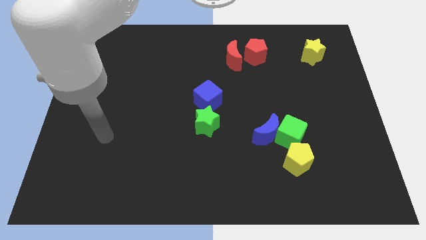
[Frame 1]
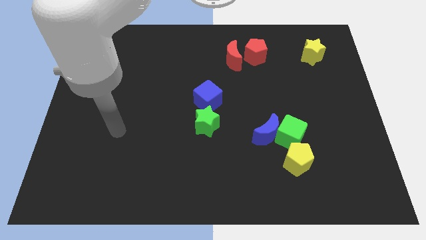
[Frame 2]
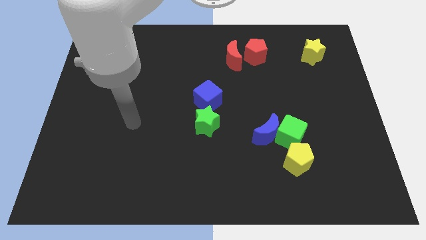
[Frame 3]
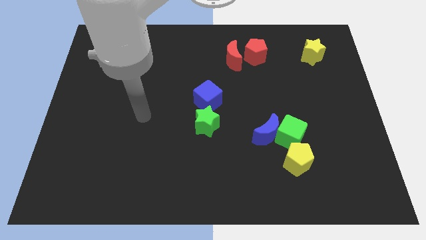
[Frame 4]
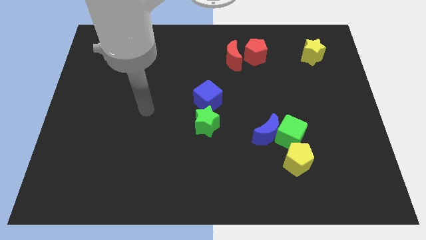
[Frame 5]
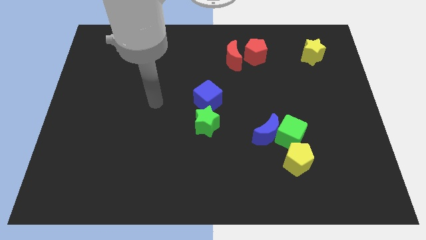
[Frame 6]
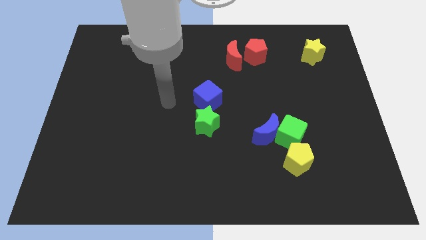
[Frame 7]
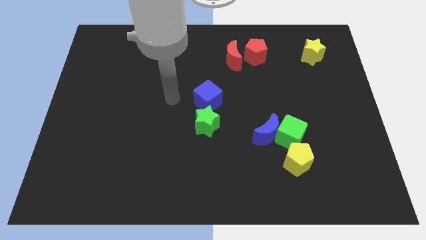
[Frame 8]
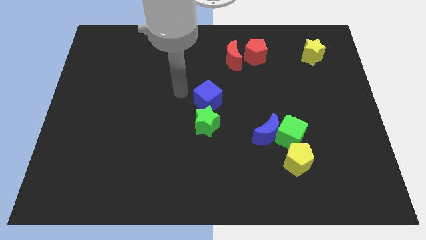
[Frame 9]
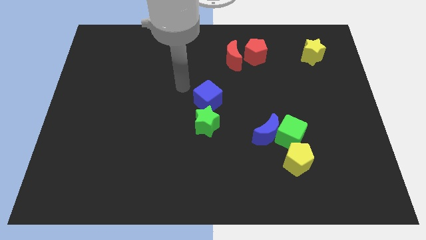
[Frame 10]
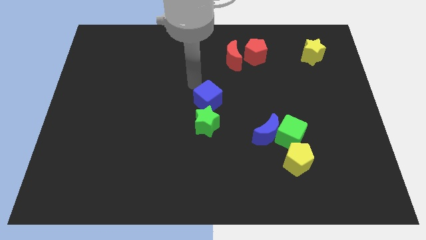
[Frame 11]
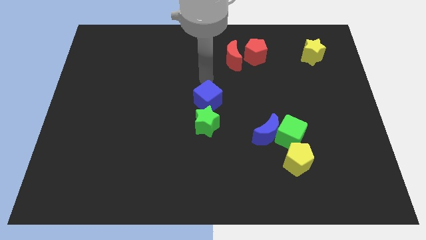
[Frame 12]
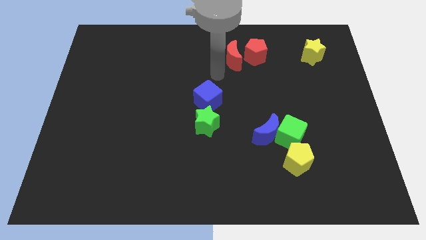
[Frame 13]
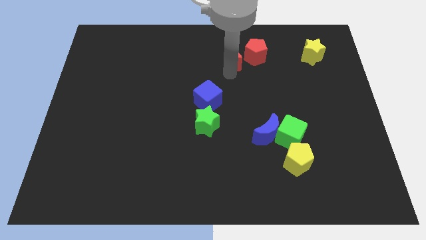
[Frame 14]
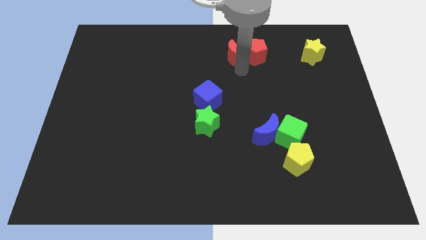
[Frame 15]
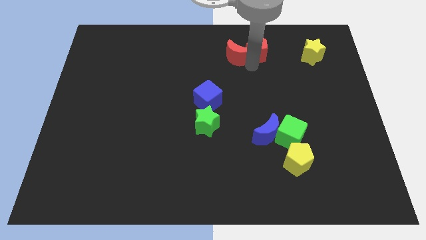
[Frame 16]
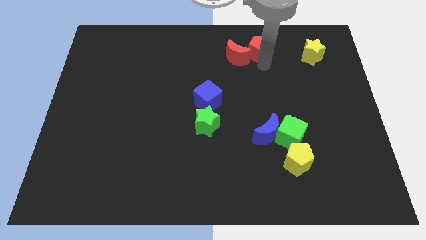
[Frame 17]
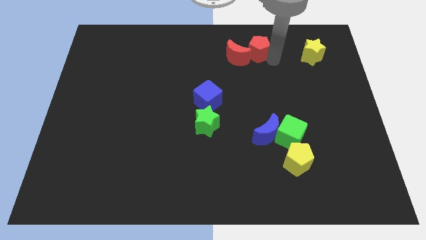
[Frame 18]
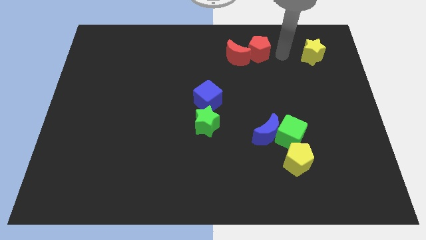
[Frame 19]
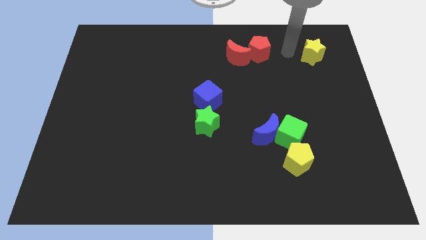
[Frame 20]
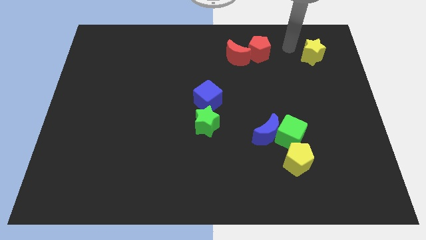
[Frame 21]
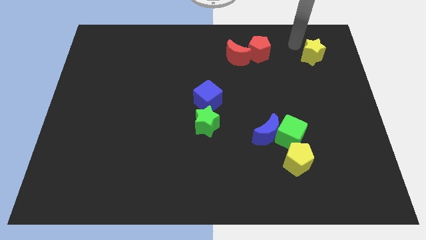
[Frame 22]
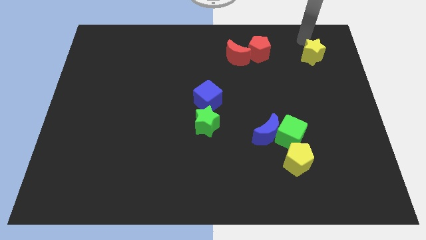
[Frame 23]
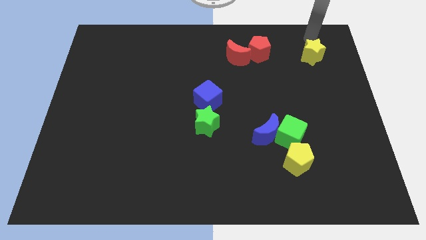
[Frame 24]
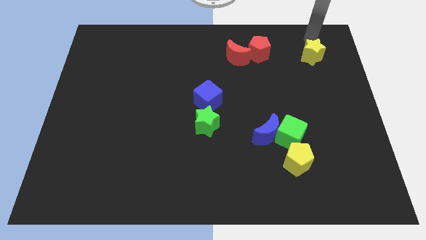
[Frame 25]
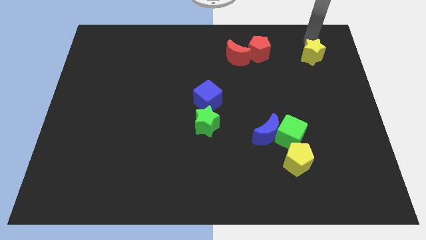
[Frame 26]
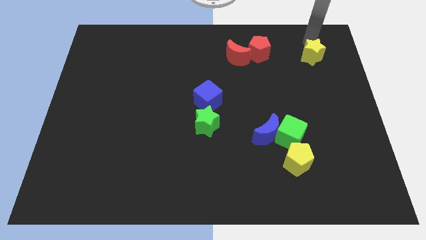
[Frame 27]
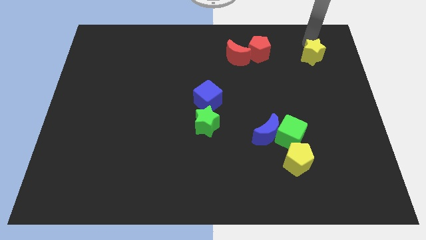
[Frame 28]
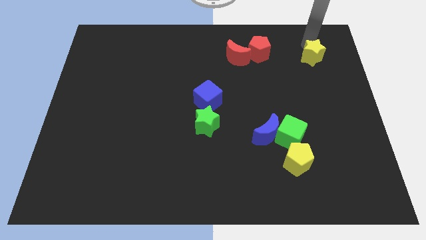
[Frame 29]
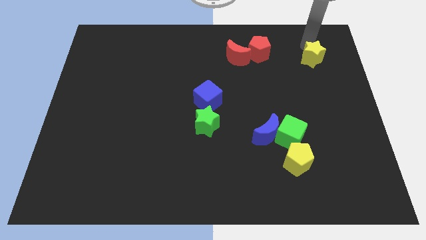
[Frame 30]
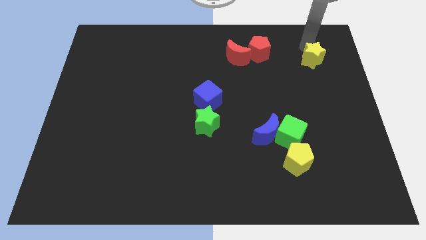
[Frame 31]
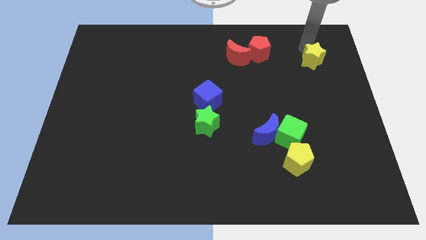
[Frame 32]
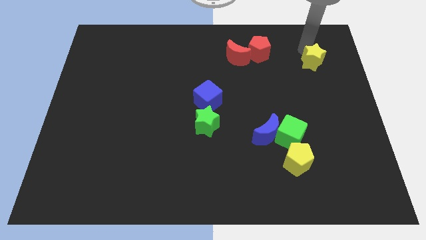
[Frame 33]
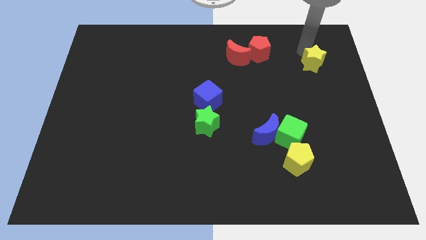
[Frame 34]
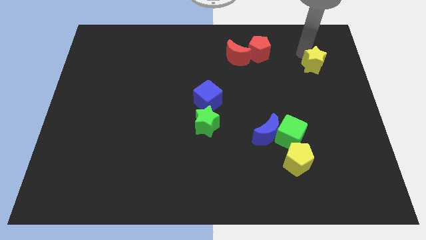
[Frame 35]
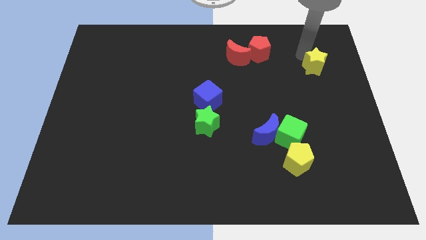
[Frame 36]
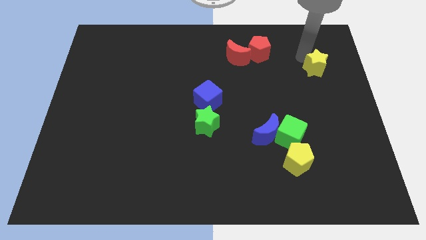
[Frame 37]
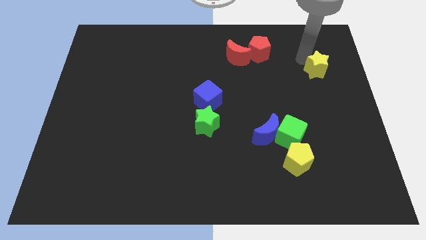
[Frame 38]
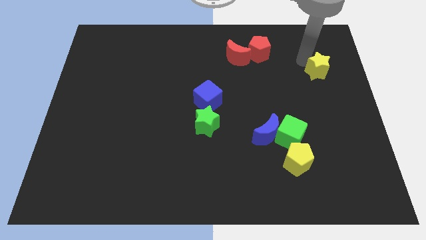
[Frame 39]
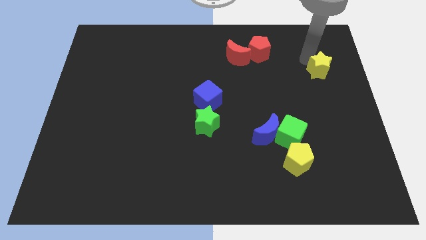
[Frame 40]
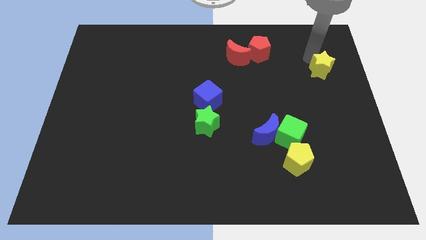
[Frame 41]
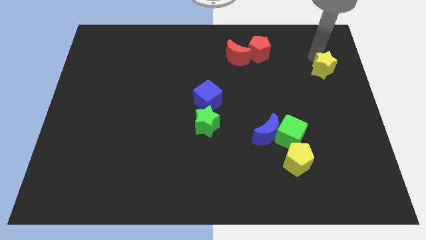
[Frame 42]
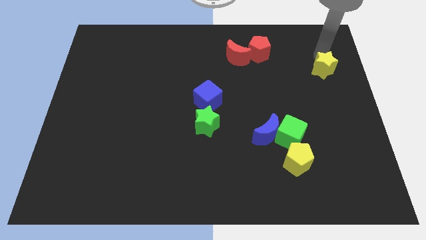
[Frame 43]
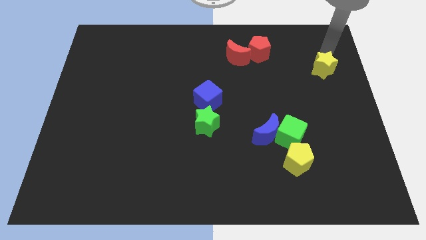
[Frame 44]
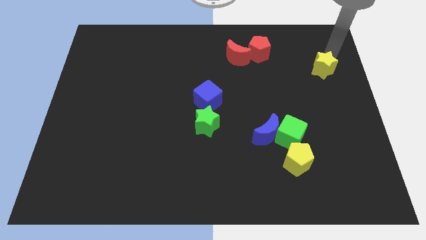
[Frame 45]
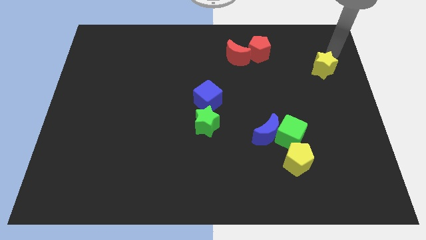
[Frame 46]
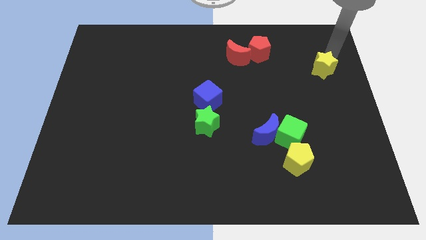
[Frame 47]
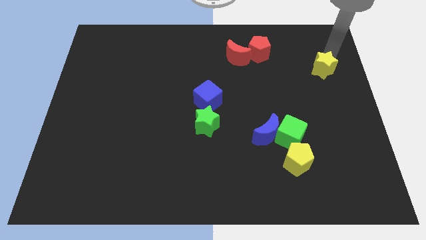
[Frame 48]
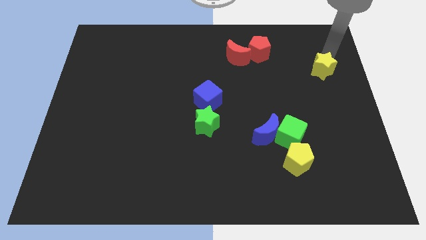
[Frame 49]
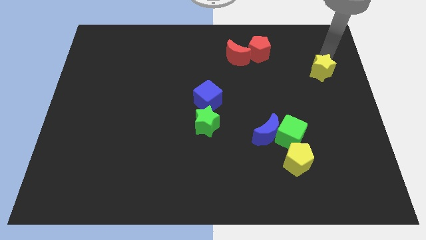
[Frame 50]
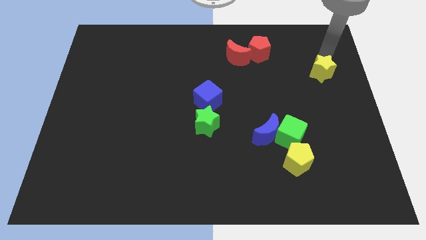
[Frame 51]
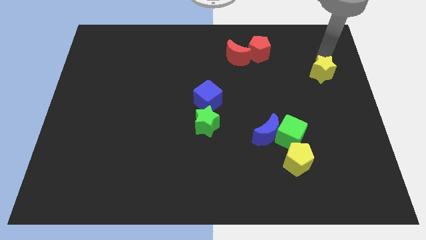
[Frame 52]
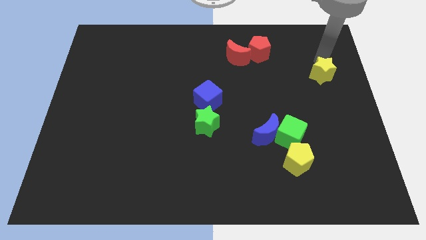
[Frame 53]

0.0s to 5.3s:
move the yellow star downwards somewhat

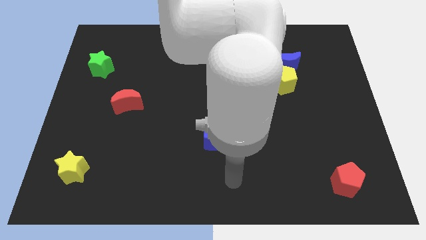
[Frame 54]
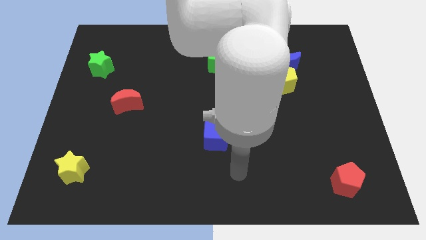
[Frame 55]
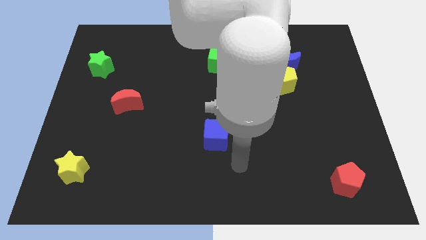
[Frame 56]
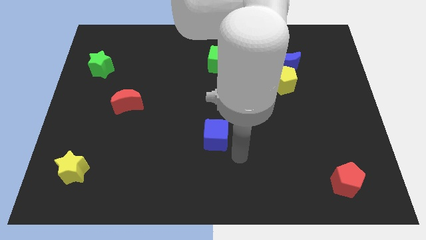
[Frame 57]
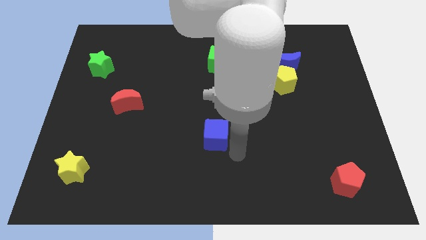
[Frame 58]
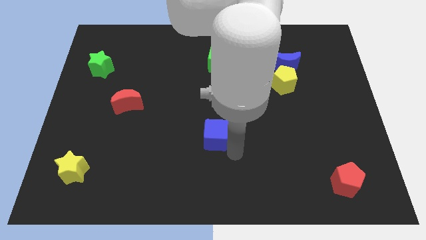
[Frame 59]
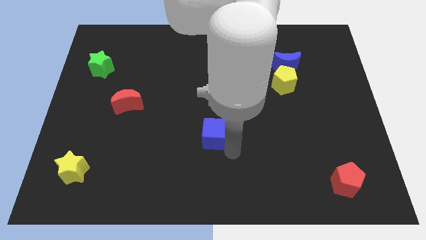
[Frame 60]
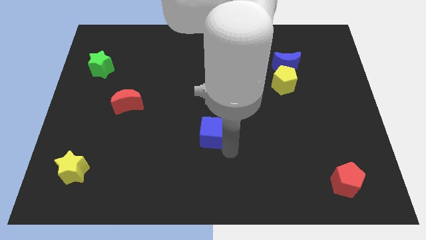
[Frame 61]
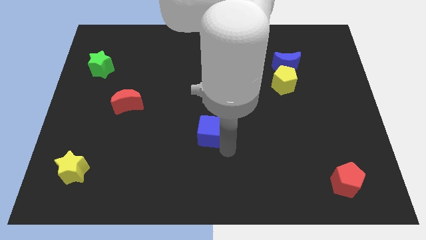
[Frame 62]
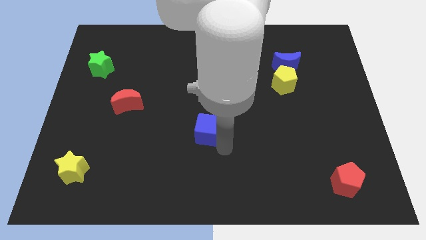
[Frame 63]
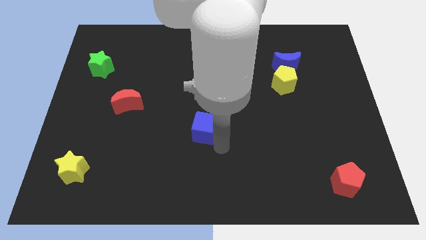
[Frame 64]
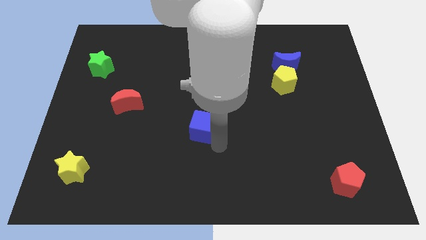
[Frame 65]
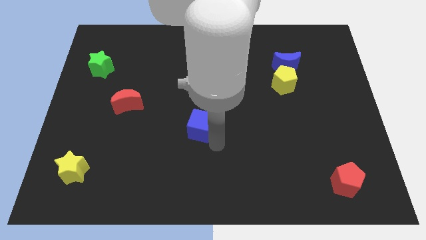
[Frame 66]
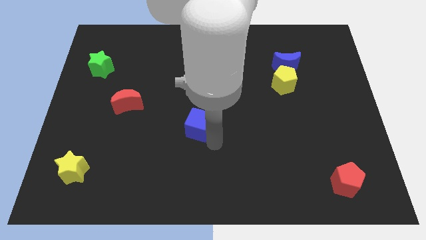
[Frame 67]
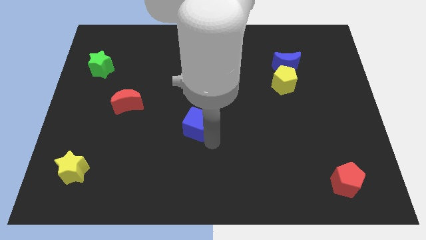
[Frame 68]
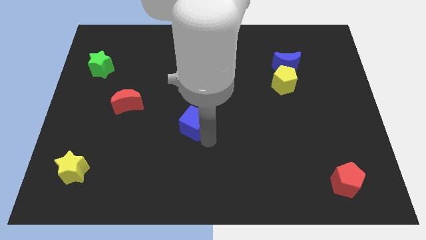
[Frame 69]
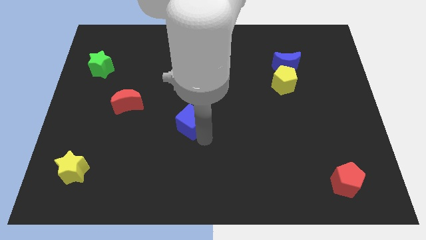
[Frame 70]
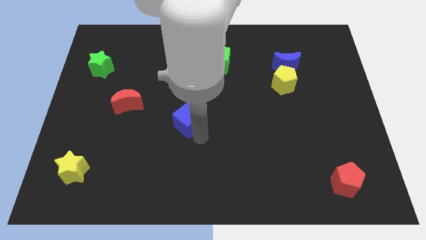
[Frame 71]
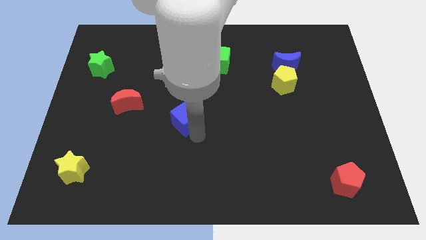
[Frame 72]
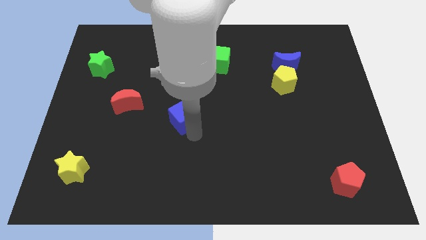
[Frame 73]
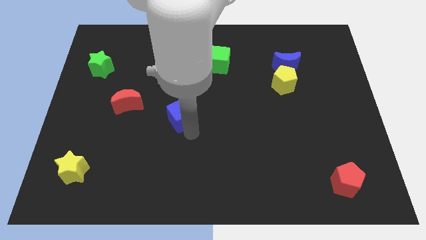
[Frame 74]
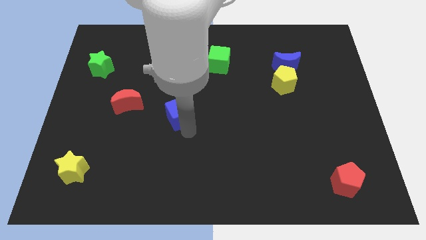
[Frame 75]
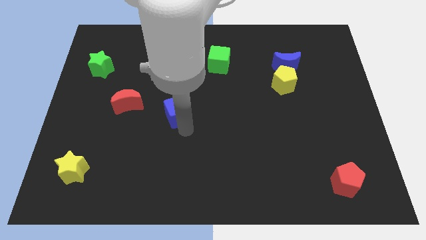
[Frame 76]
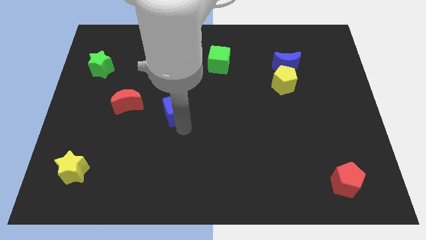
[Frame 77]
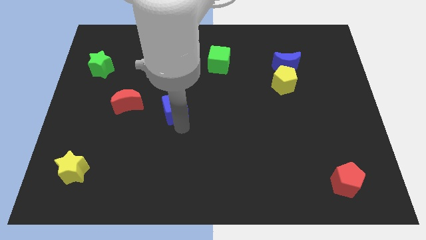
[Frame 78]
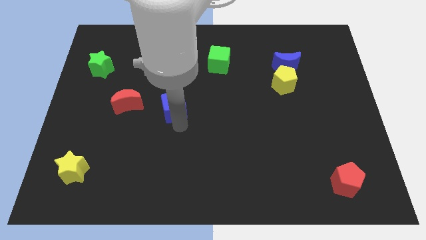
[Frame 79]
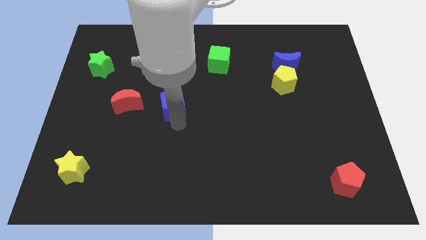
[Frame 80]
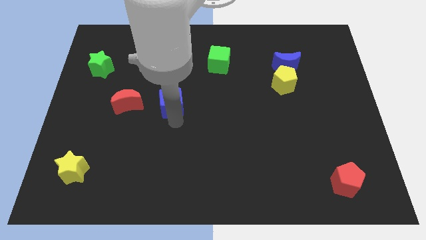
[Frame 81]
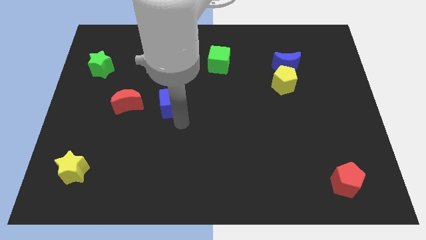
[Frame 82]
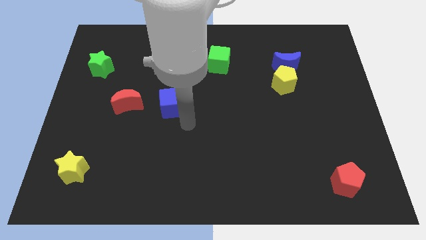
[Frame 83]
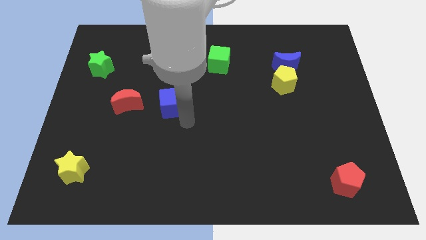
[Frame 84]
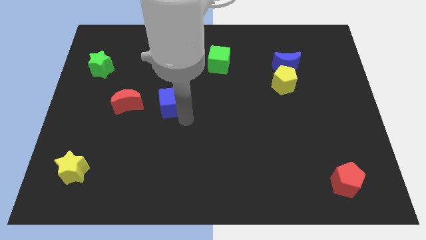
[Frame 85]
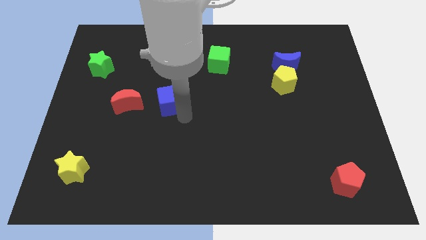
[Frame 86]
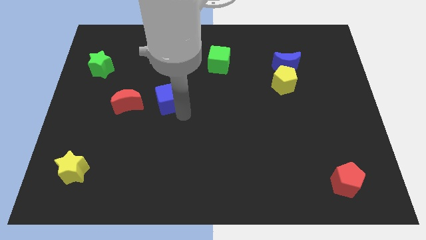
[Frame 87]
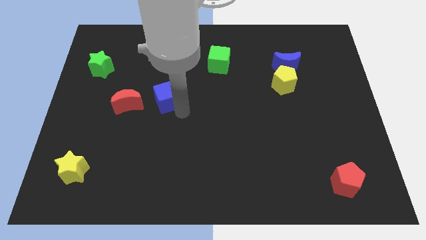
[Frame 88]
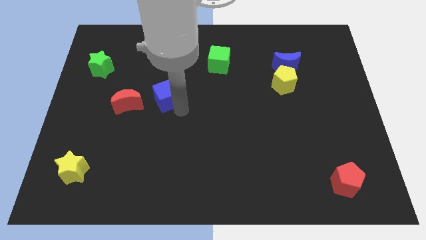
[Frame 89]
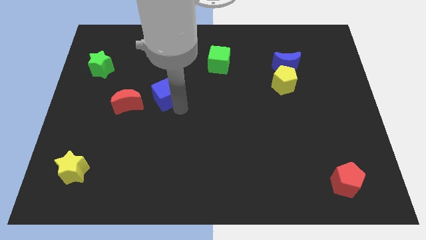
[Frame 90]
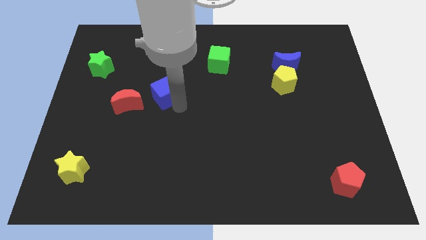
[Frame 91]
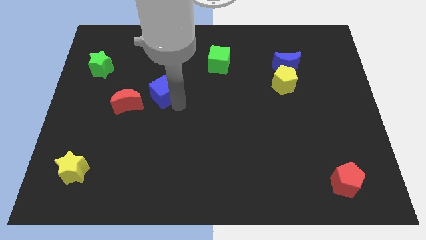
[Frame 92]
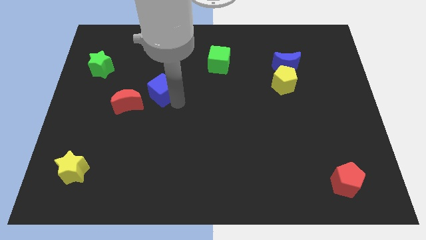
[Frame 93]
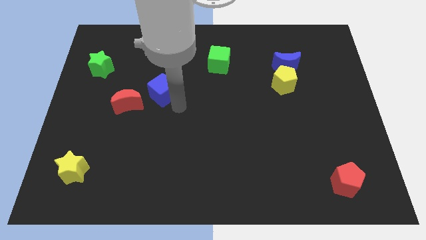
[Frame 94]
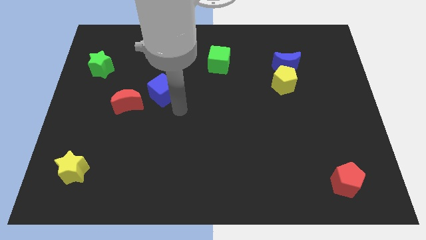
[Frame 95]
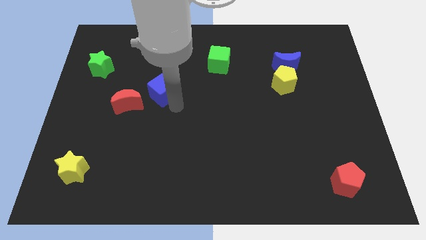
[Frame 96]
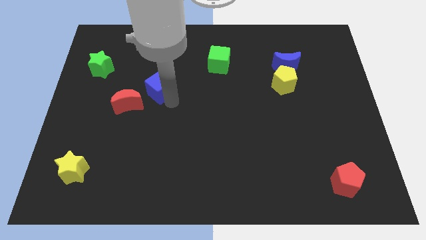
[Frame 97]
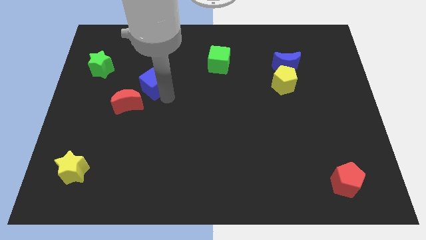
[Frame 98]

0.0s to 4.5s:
slide the blue cube up and to the left diagonally
